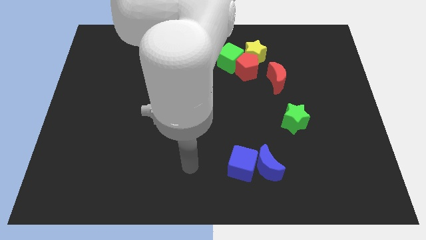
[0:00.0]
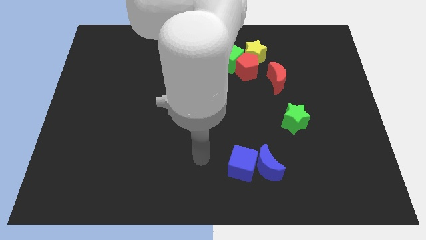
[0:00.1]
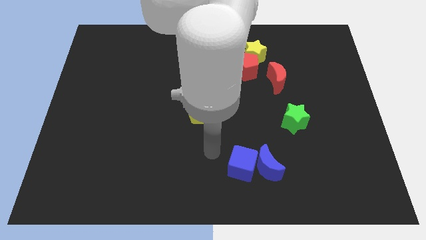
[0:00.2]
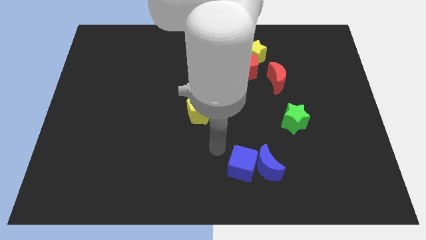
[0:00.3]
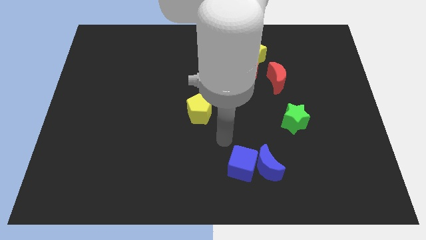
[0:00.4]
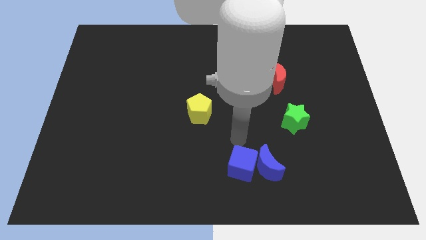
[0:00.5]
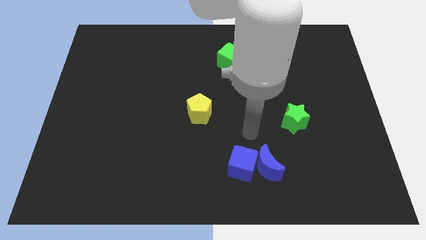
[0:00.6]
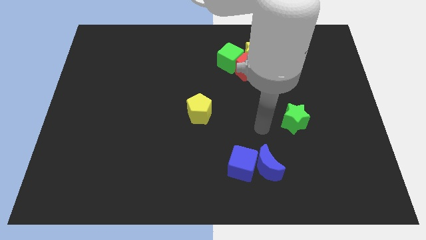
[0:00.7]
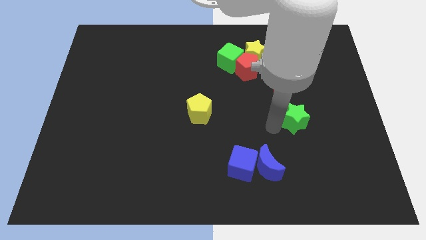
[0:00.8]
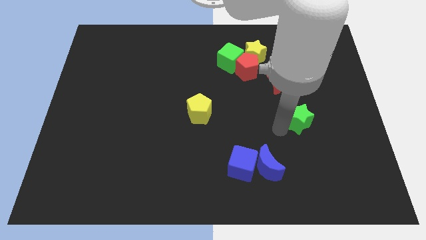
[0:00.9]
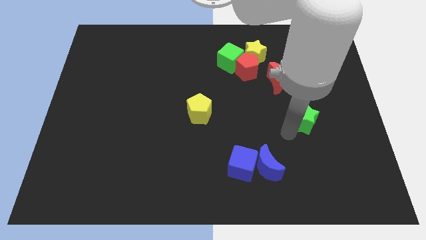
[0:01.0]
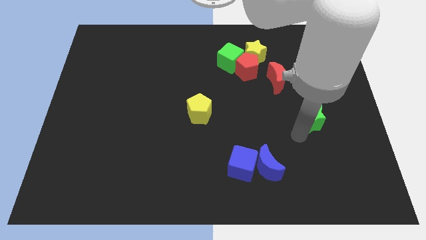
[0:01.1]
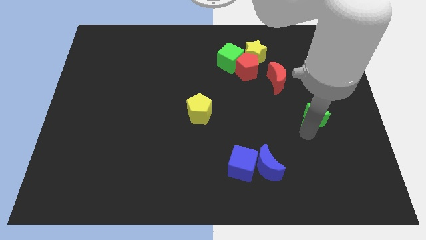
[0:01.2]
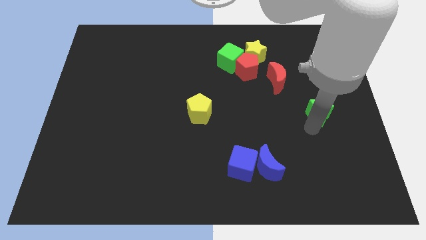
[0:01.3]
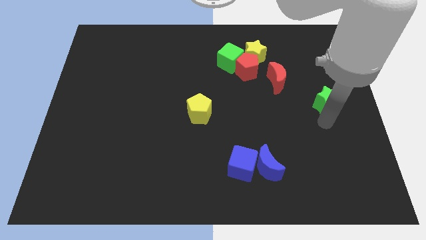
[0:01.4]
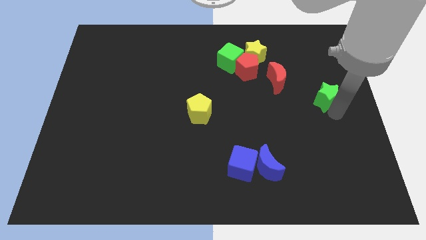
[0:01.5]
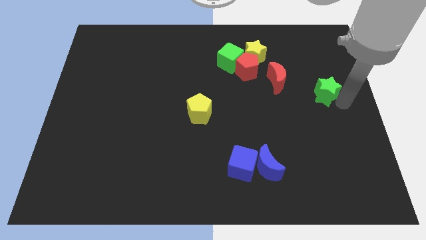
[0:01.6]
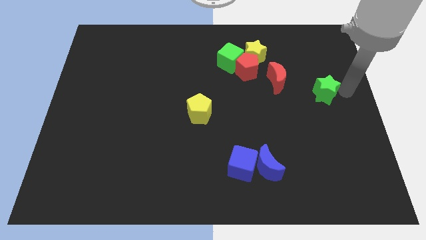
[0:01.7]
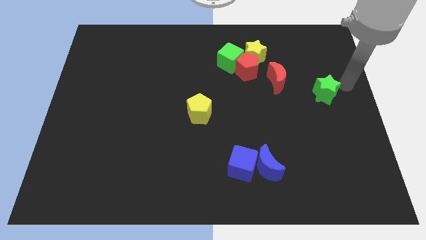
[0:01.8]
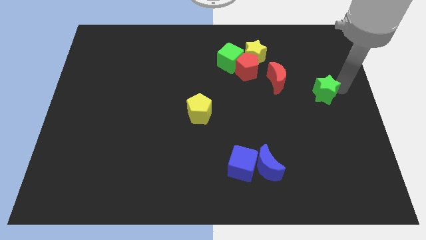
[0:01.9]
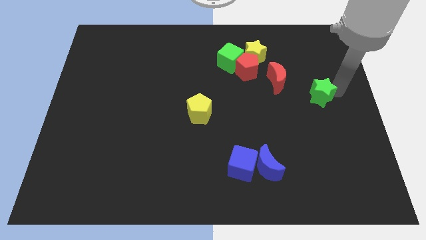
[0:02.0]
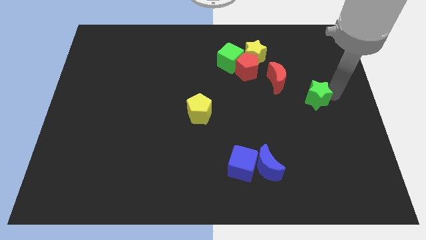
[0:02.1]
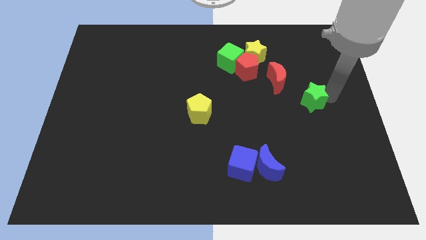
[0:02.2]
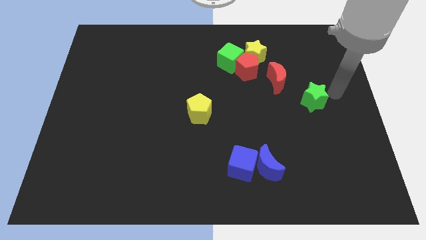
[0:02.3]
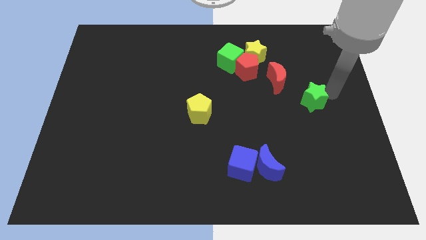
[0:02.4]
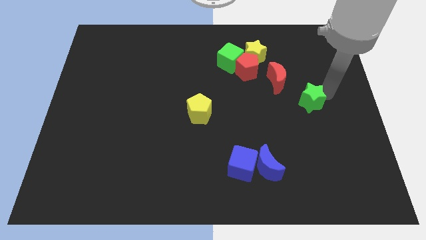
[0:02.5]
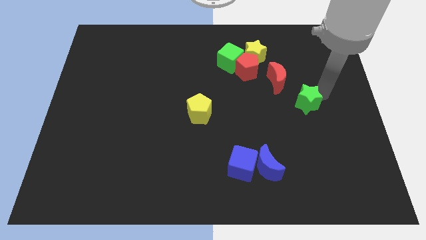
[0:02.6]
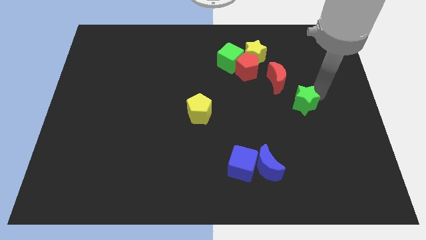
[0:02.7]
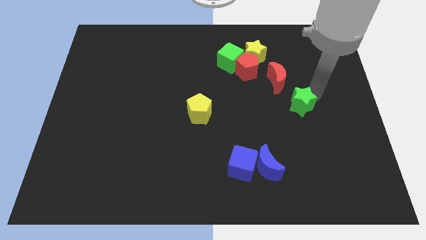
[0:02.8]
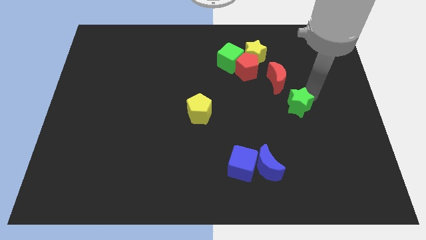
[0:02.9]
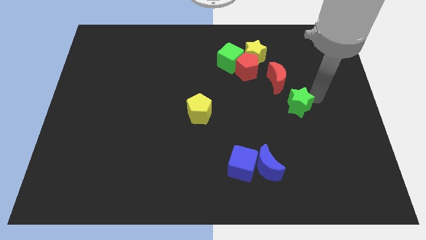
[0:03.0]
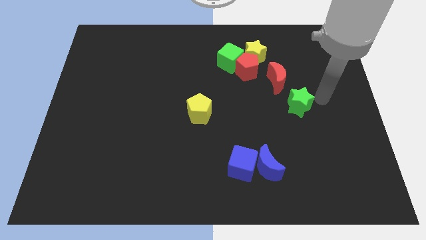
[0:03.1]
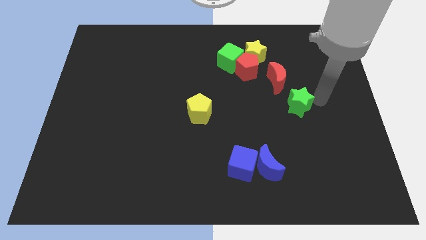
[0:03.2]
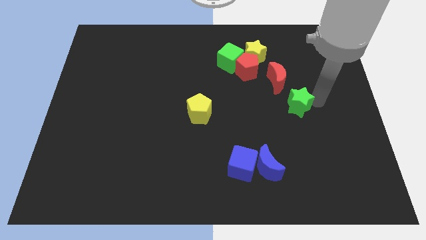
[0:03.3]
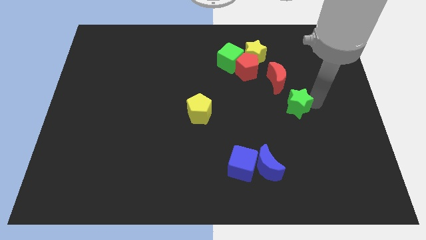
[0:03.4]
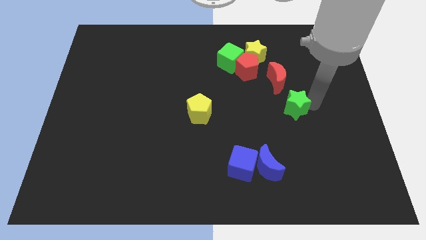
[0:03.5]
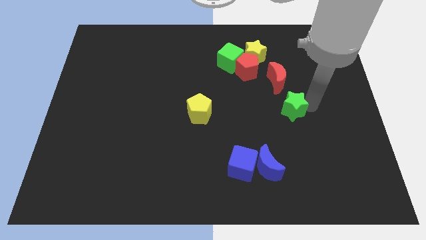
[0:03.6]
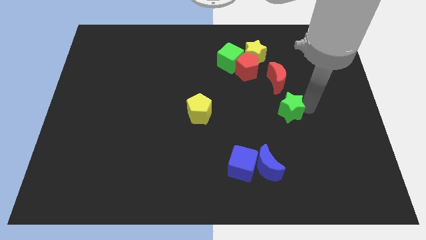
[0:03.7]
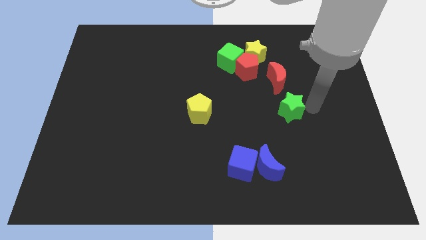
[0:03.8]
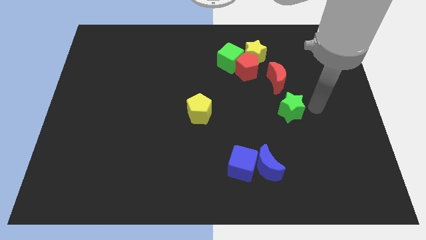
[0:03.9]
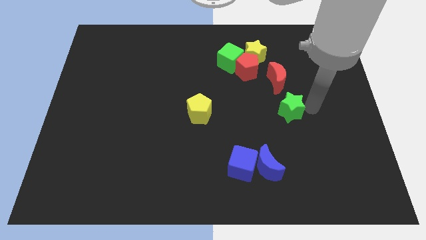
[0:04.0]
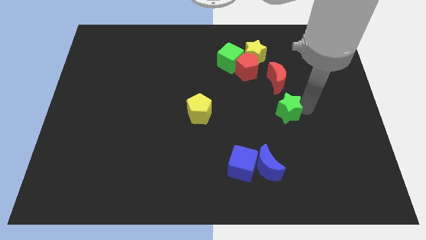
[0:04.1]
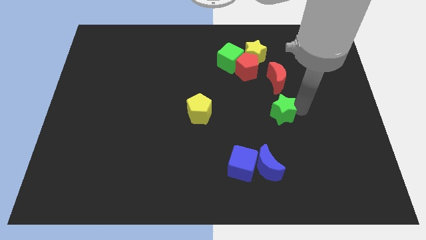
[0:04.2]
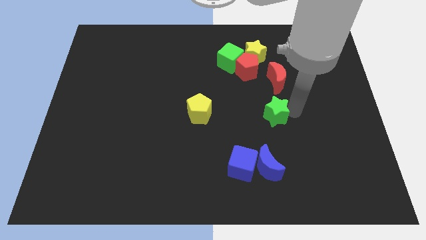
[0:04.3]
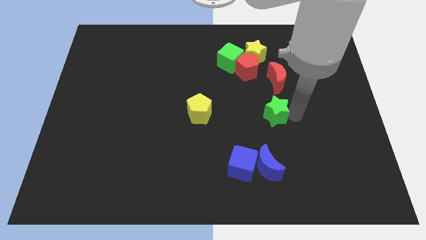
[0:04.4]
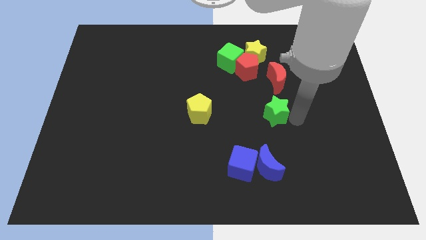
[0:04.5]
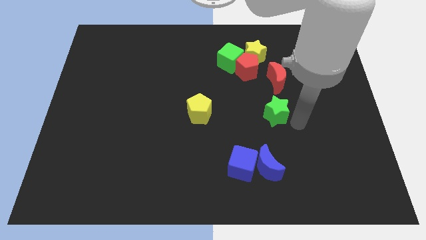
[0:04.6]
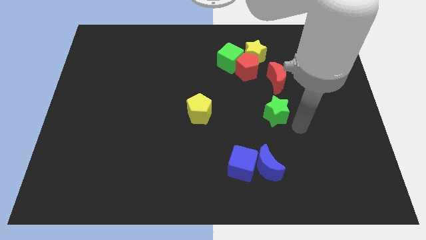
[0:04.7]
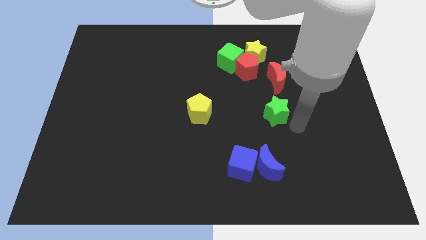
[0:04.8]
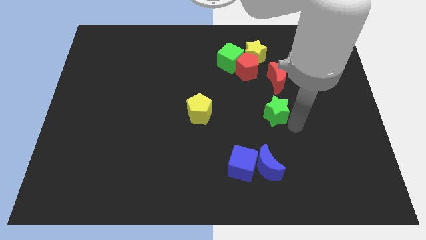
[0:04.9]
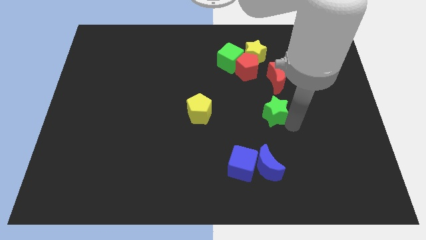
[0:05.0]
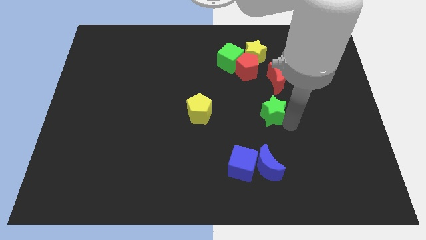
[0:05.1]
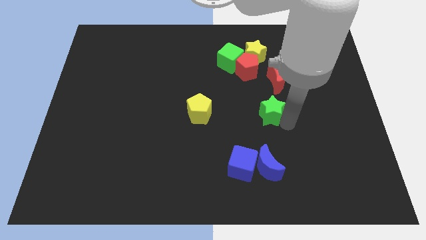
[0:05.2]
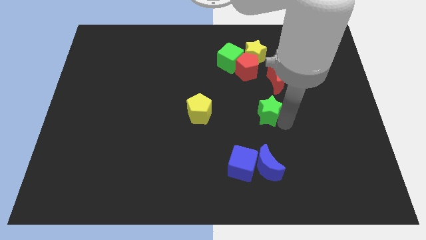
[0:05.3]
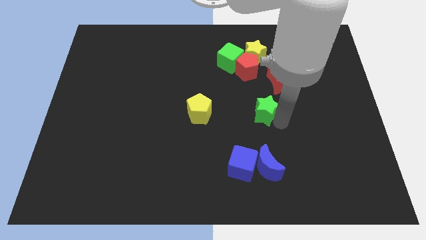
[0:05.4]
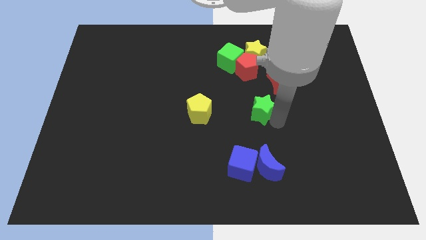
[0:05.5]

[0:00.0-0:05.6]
push the green star a little upwards and left diagonally

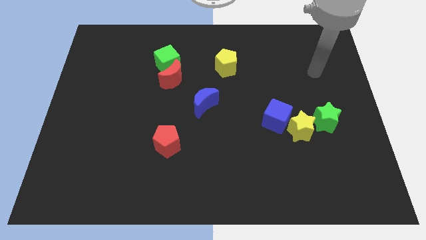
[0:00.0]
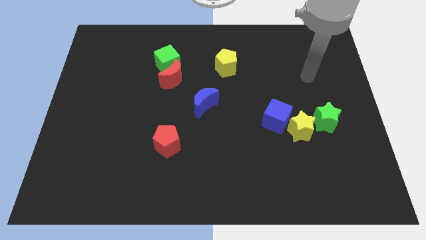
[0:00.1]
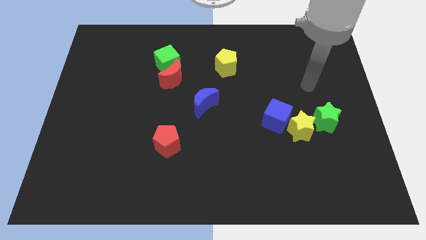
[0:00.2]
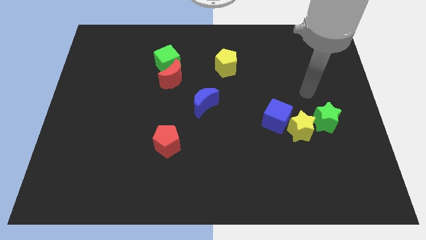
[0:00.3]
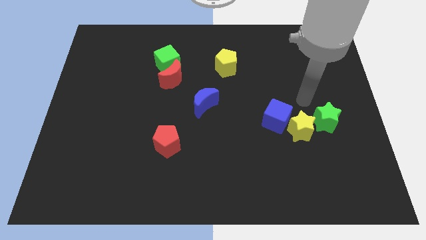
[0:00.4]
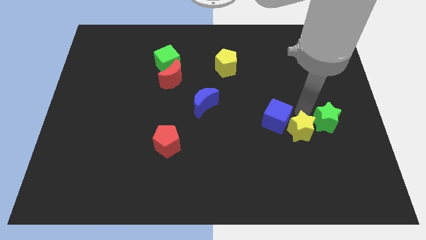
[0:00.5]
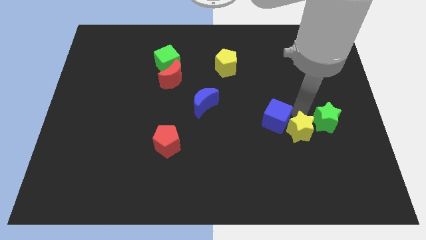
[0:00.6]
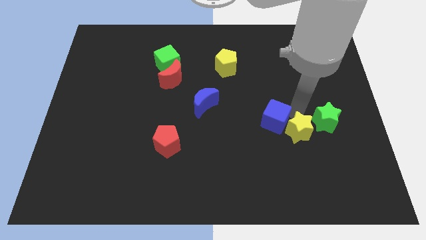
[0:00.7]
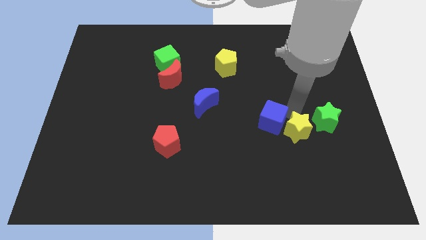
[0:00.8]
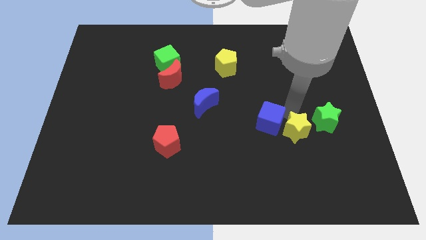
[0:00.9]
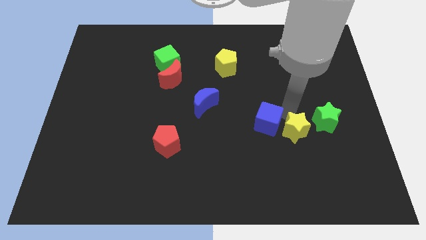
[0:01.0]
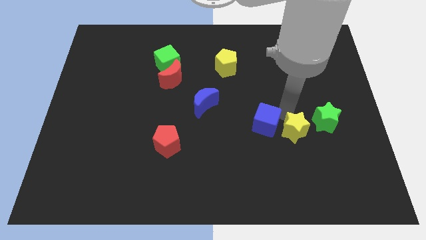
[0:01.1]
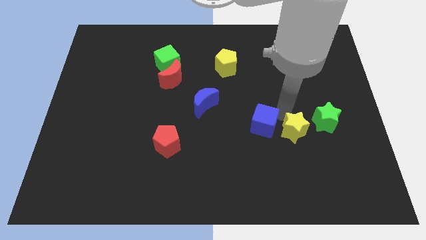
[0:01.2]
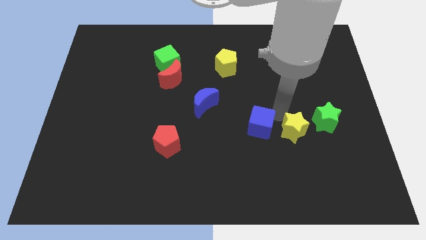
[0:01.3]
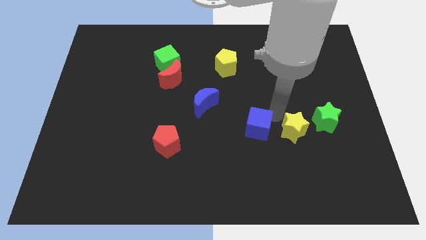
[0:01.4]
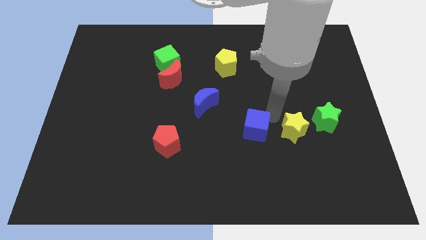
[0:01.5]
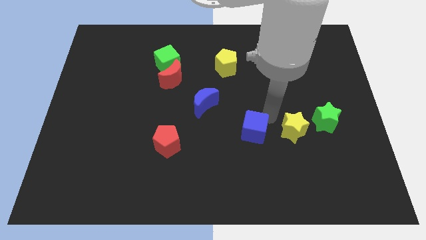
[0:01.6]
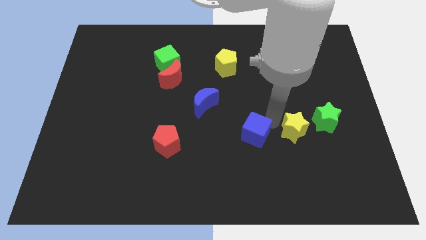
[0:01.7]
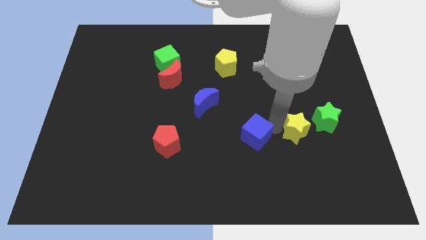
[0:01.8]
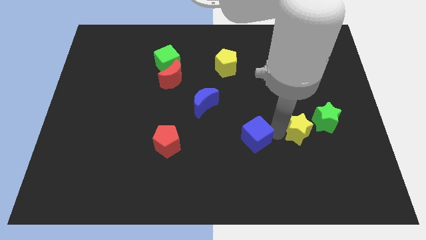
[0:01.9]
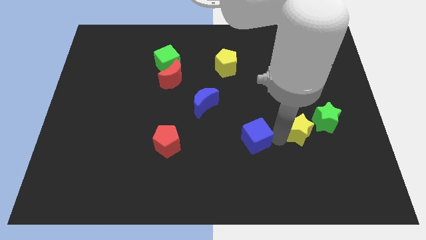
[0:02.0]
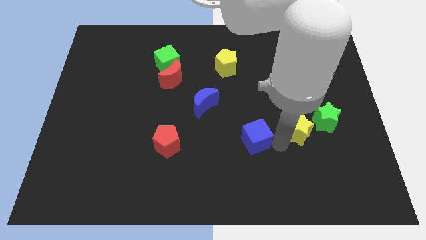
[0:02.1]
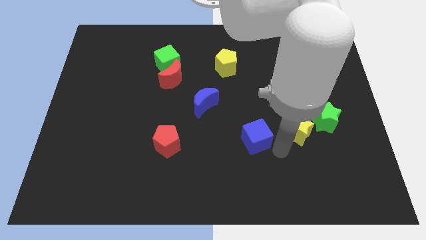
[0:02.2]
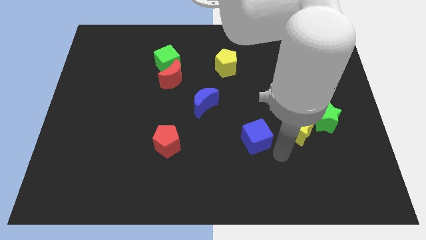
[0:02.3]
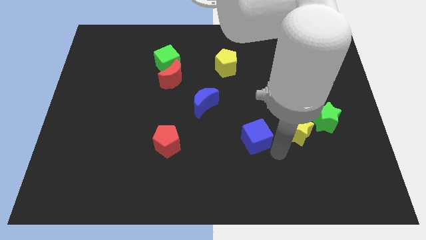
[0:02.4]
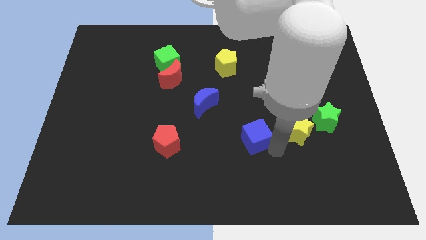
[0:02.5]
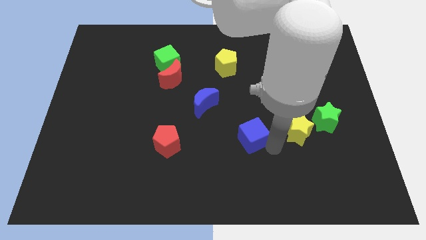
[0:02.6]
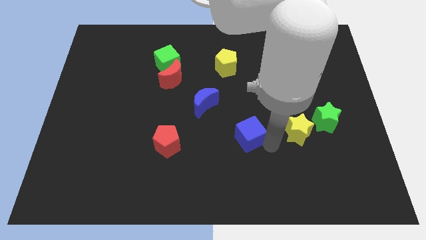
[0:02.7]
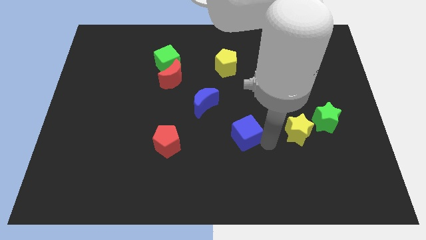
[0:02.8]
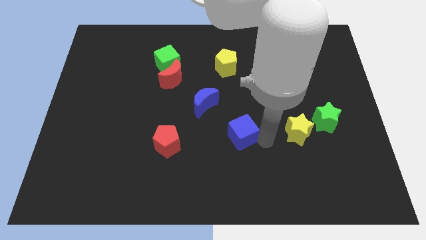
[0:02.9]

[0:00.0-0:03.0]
slightly push the blue cube to the left
